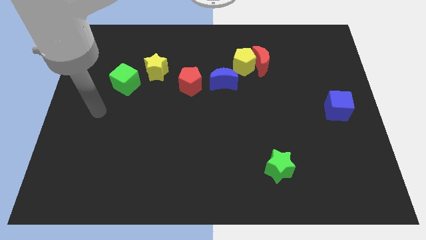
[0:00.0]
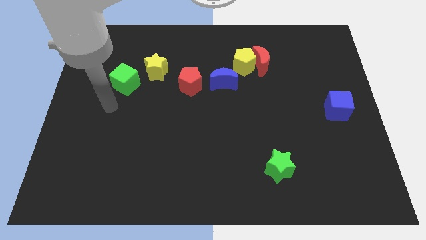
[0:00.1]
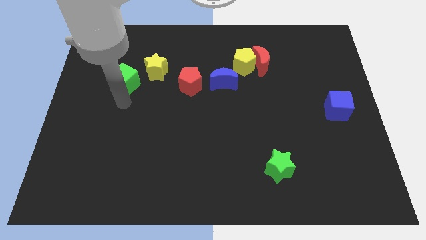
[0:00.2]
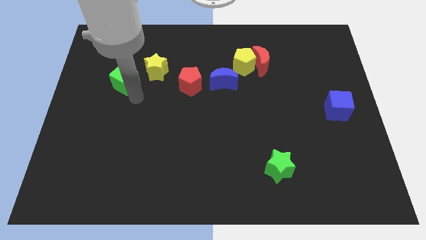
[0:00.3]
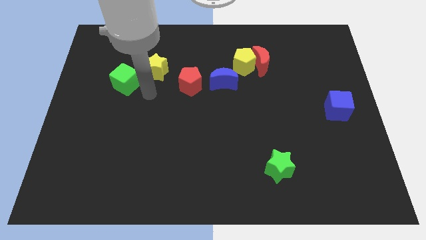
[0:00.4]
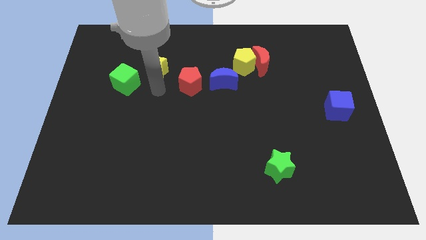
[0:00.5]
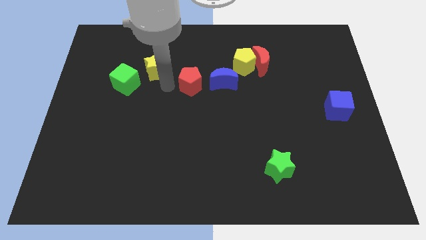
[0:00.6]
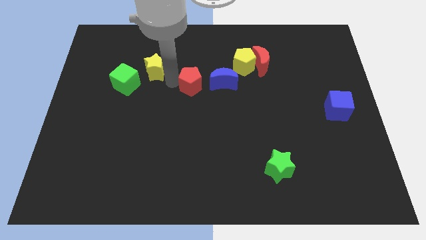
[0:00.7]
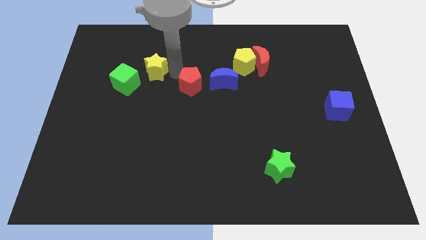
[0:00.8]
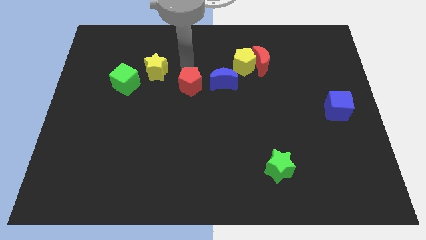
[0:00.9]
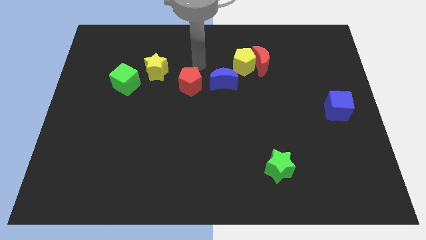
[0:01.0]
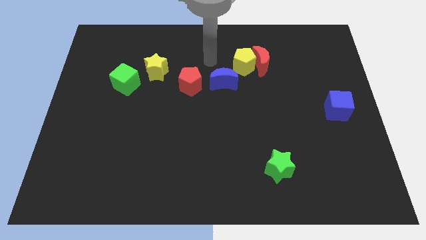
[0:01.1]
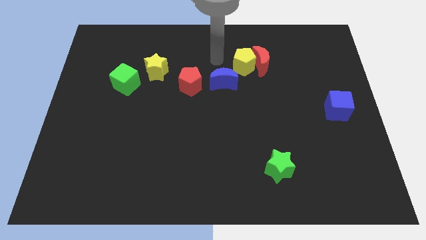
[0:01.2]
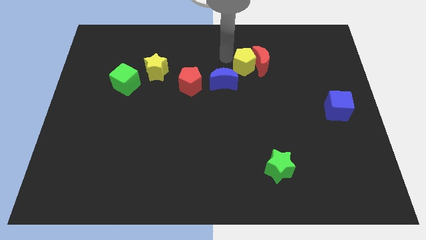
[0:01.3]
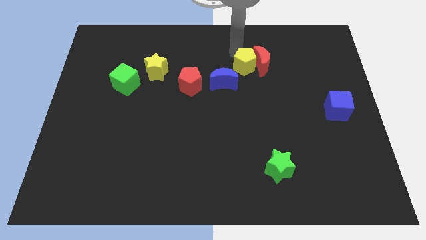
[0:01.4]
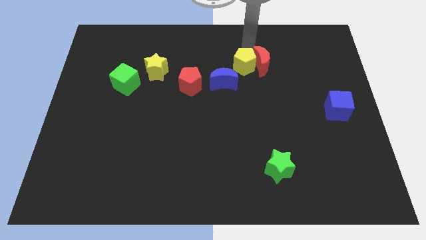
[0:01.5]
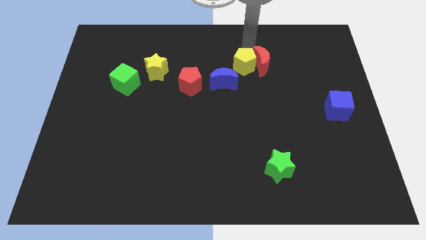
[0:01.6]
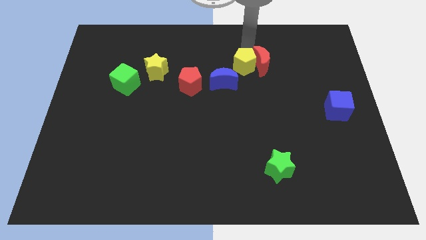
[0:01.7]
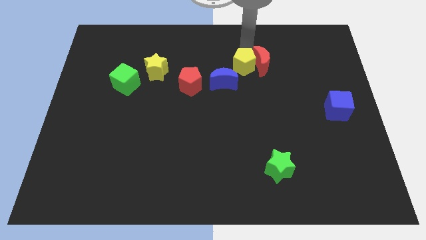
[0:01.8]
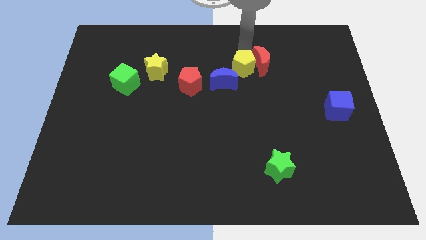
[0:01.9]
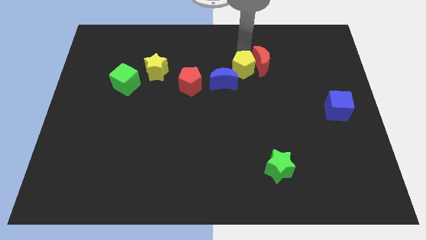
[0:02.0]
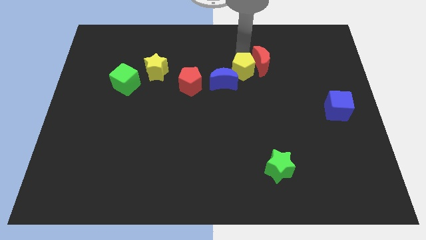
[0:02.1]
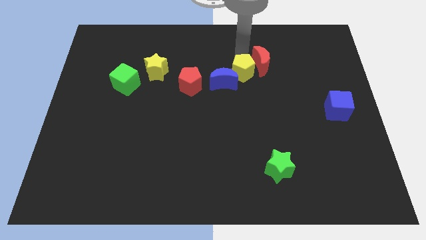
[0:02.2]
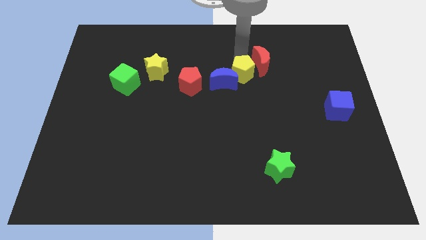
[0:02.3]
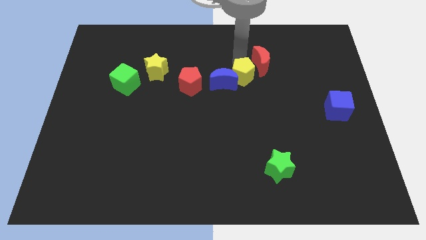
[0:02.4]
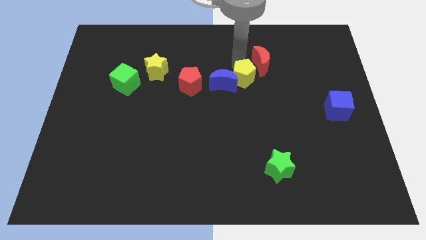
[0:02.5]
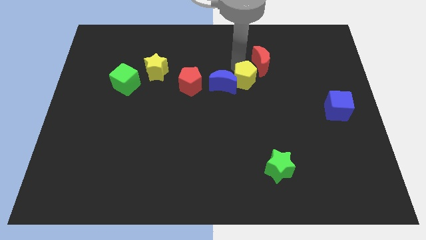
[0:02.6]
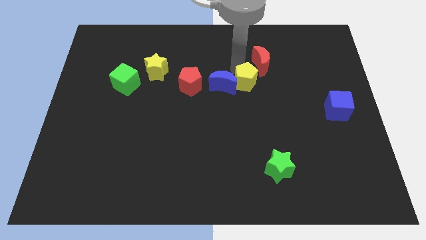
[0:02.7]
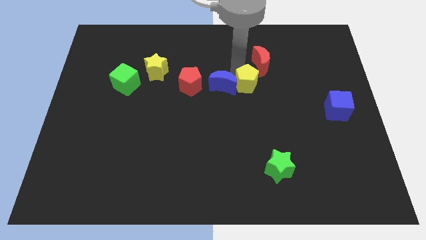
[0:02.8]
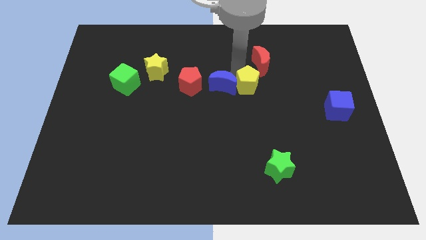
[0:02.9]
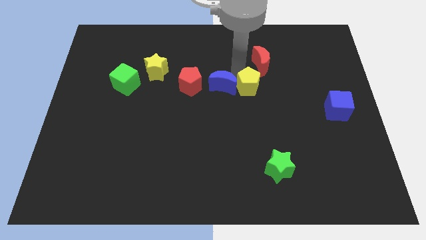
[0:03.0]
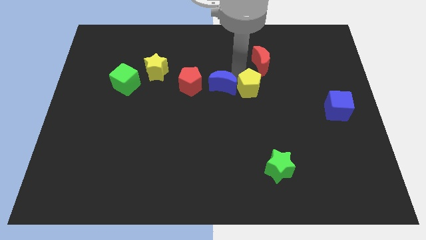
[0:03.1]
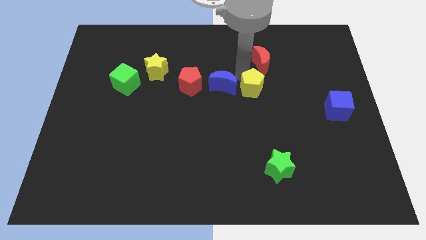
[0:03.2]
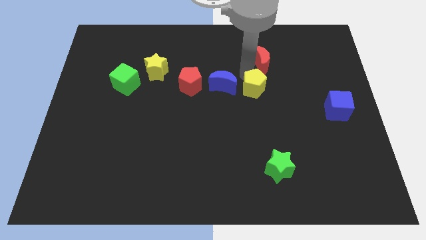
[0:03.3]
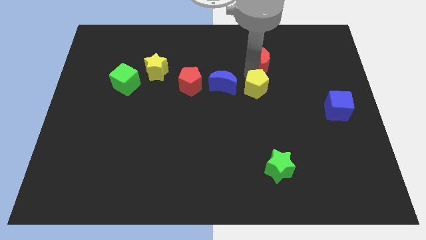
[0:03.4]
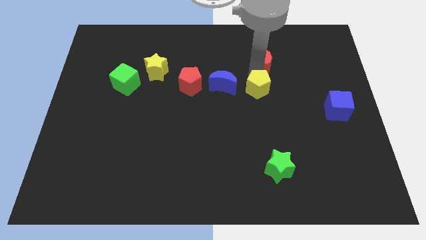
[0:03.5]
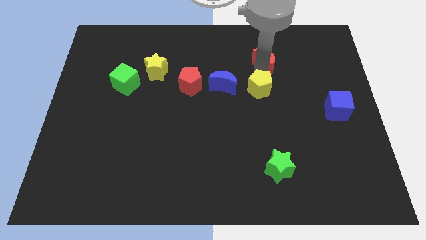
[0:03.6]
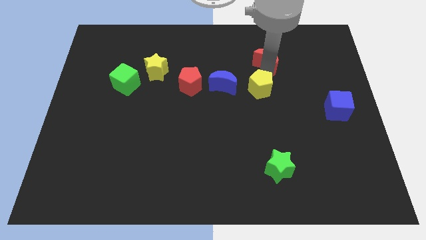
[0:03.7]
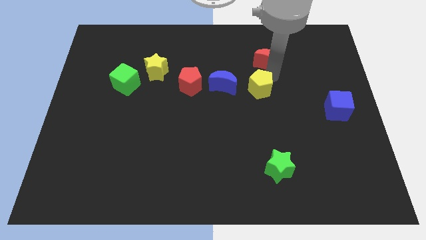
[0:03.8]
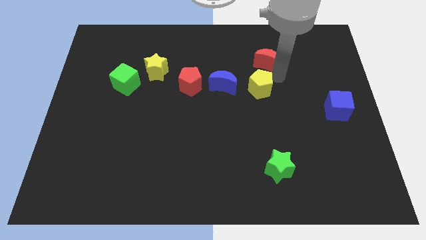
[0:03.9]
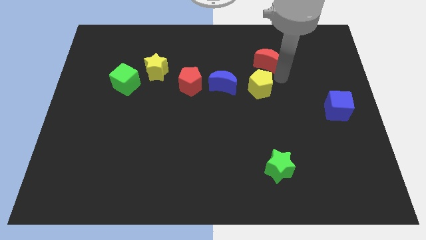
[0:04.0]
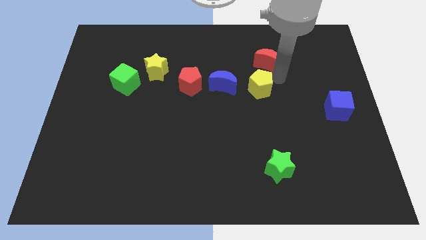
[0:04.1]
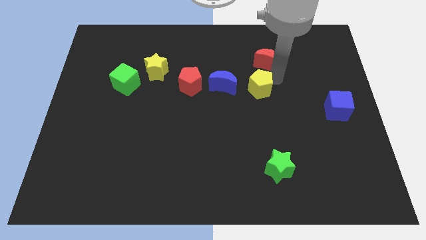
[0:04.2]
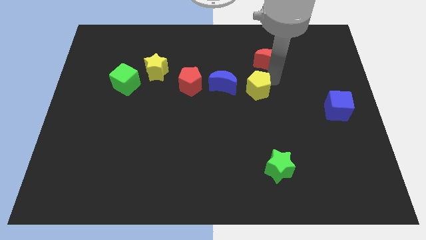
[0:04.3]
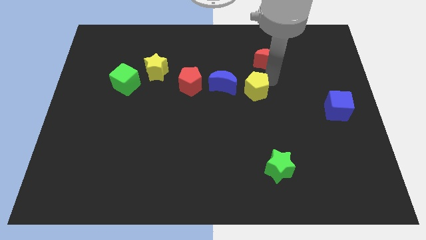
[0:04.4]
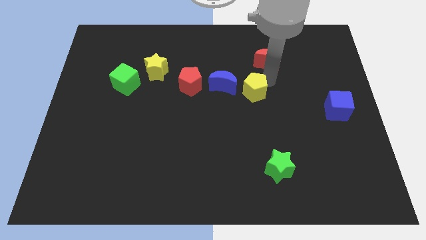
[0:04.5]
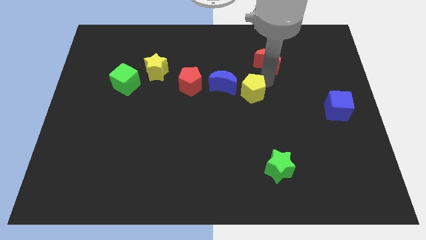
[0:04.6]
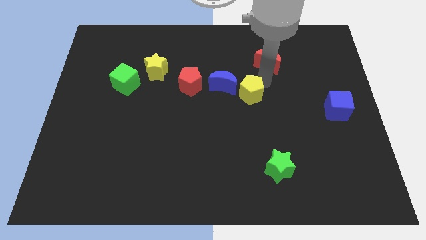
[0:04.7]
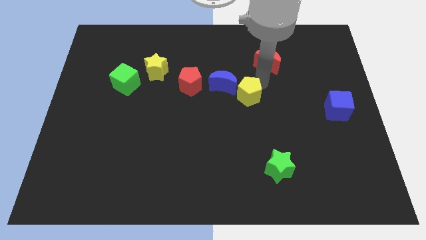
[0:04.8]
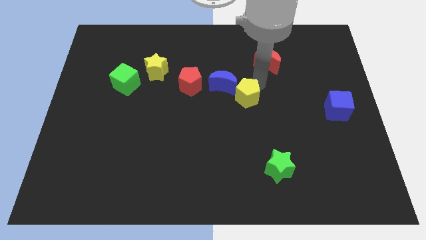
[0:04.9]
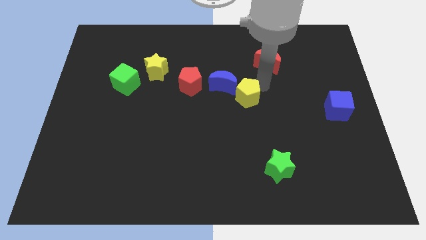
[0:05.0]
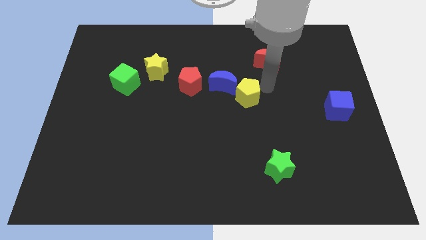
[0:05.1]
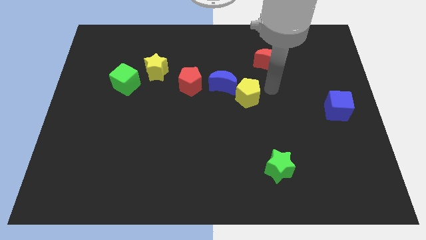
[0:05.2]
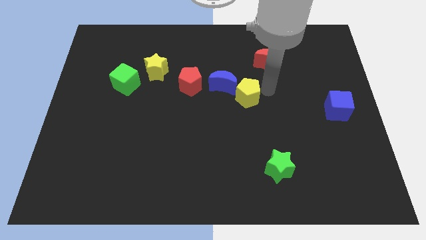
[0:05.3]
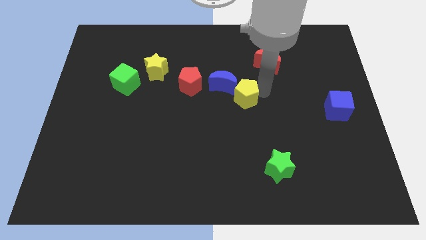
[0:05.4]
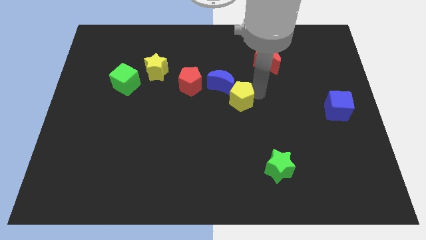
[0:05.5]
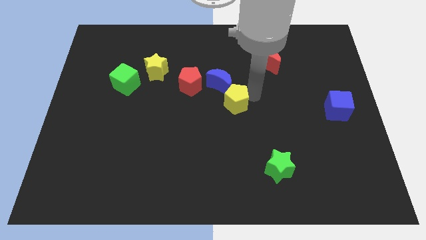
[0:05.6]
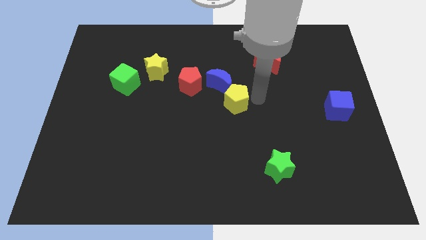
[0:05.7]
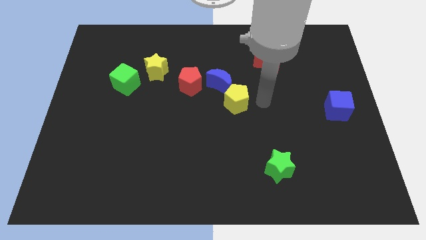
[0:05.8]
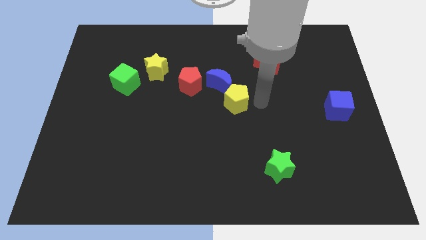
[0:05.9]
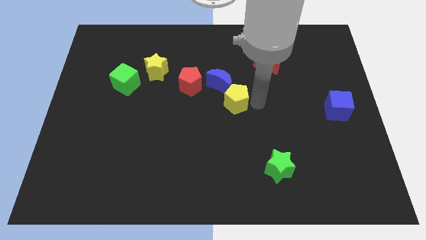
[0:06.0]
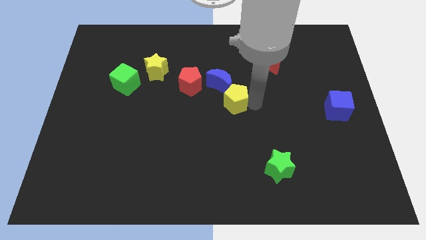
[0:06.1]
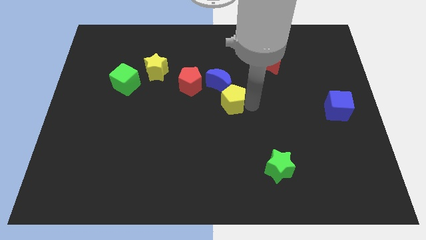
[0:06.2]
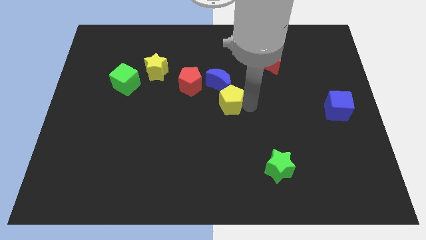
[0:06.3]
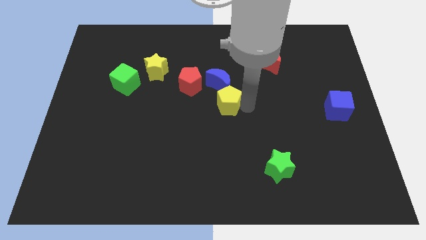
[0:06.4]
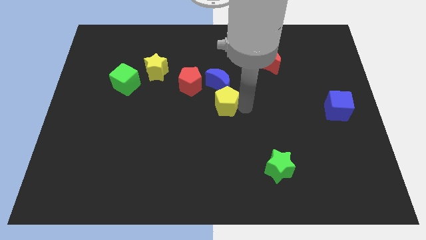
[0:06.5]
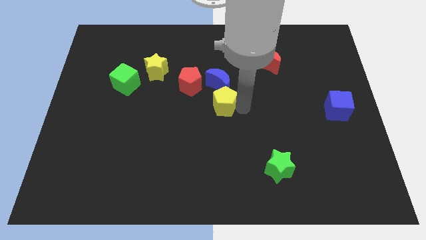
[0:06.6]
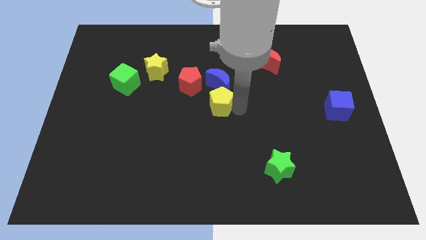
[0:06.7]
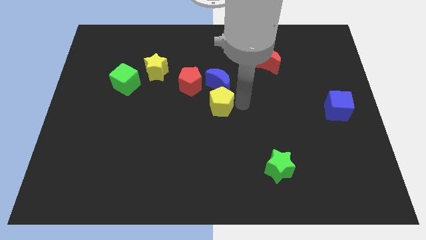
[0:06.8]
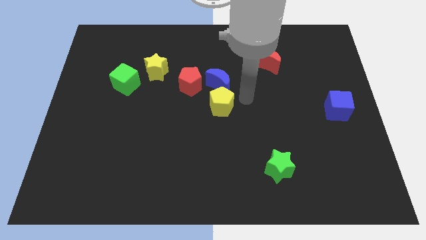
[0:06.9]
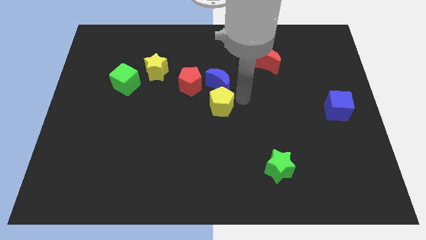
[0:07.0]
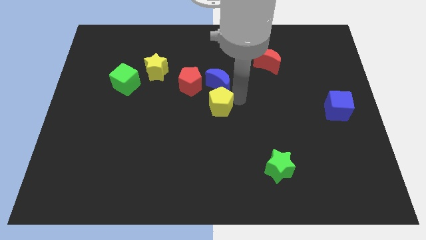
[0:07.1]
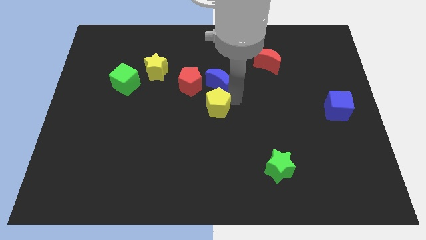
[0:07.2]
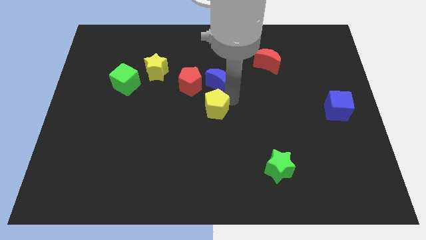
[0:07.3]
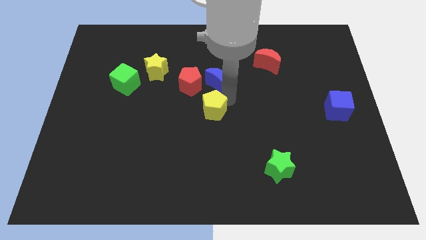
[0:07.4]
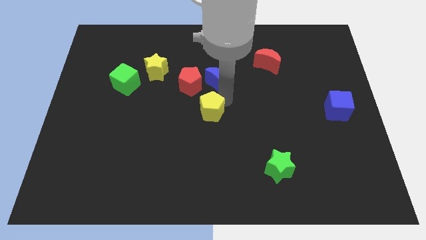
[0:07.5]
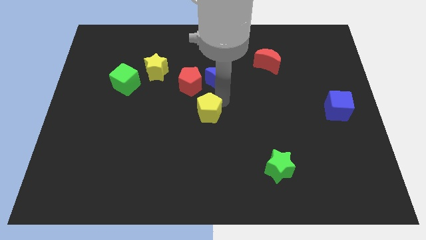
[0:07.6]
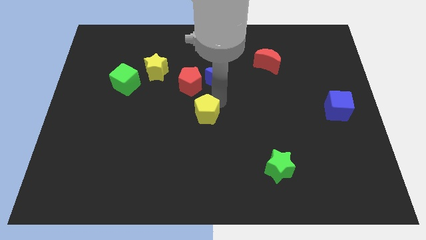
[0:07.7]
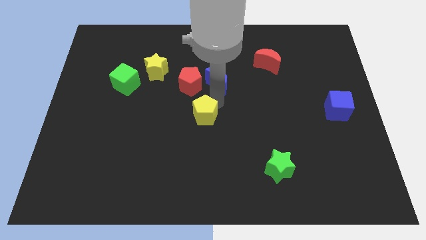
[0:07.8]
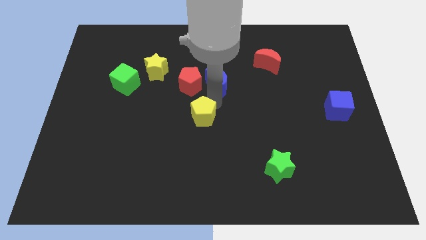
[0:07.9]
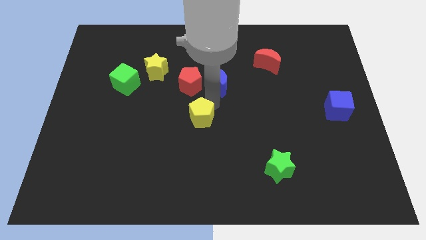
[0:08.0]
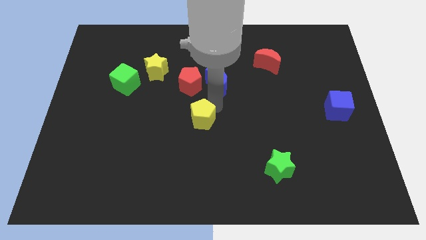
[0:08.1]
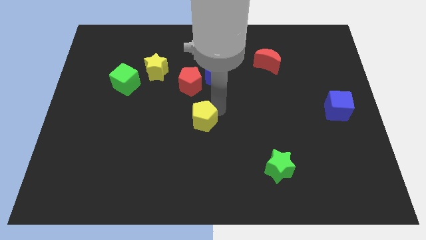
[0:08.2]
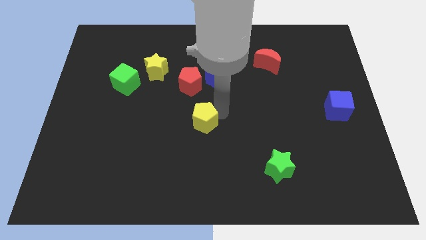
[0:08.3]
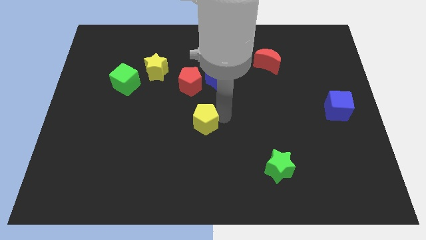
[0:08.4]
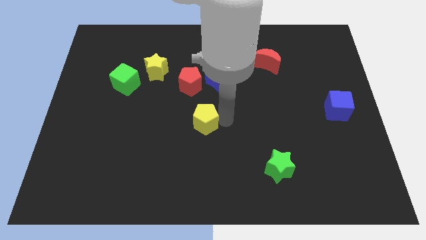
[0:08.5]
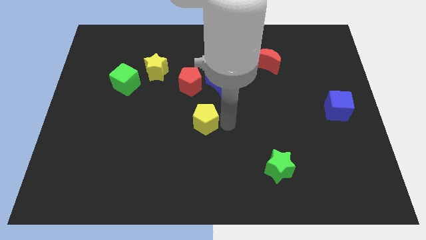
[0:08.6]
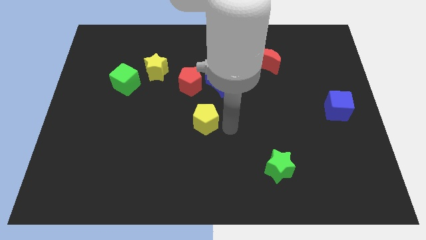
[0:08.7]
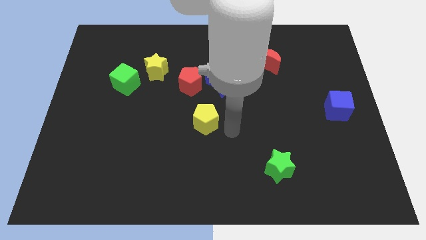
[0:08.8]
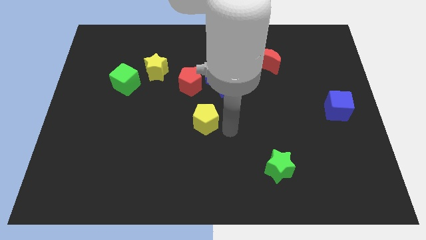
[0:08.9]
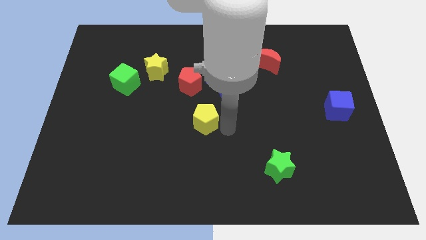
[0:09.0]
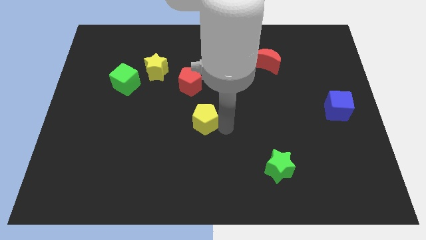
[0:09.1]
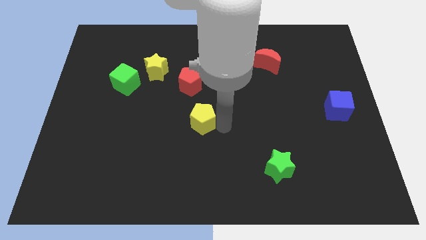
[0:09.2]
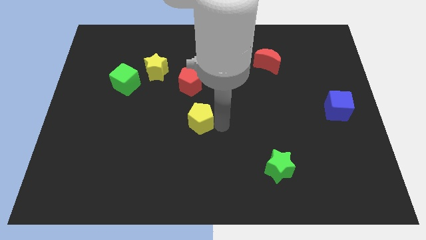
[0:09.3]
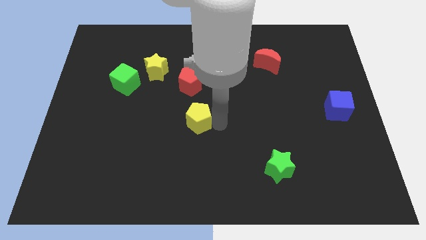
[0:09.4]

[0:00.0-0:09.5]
push the yellow pentagon down and then to the left
